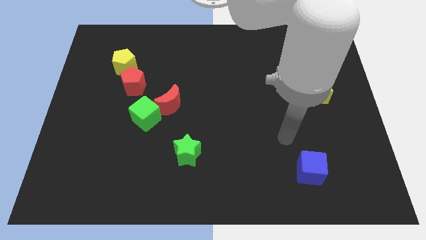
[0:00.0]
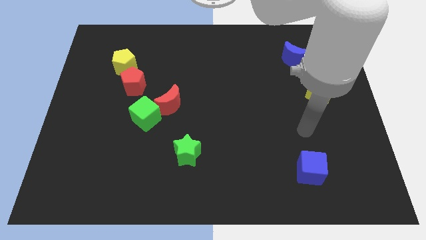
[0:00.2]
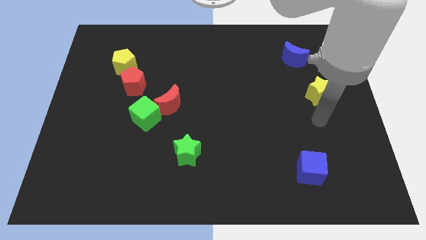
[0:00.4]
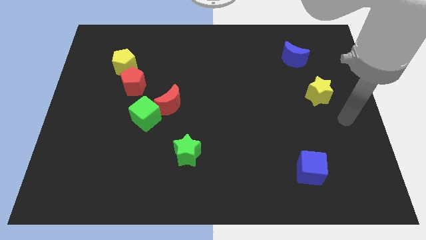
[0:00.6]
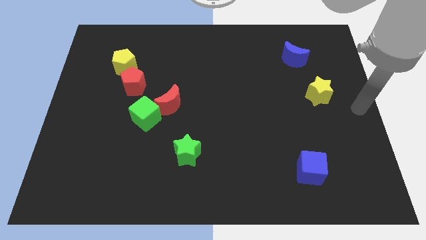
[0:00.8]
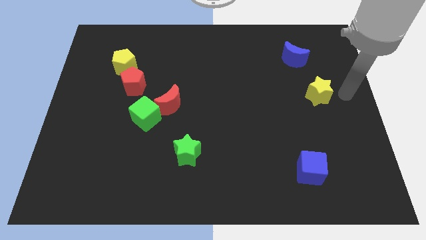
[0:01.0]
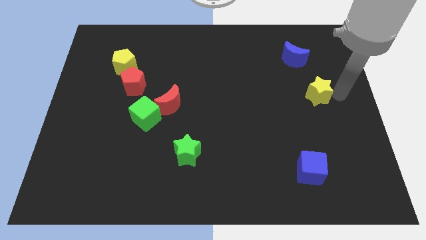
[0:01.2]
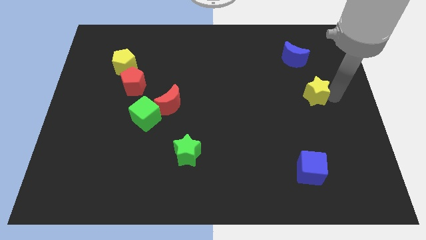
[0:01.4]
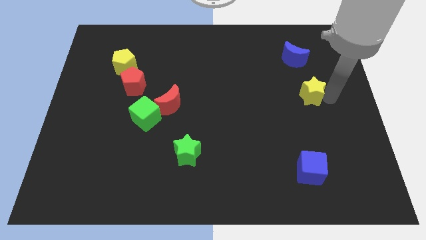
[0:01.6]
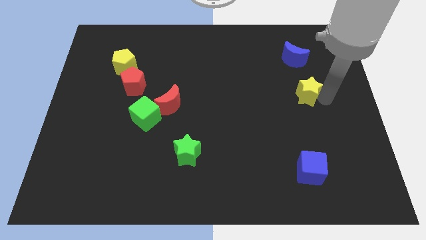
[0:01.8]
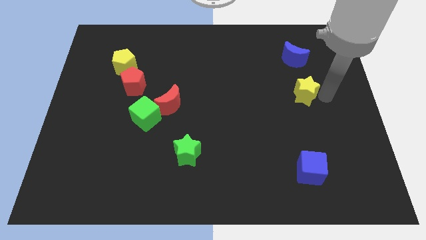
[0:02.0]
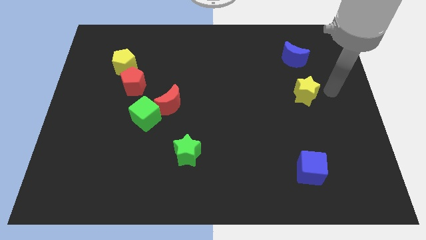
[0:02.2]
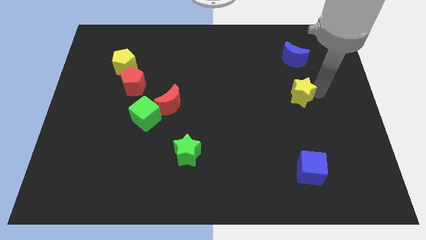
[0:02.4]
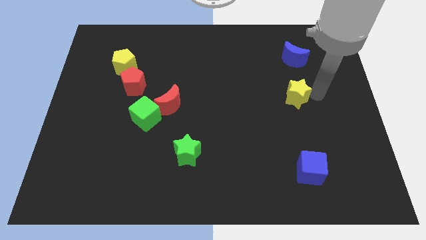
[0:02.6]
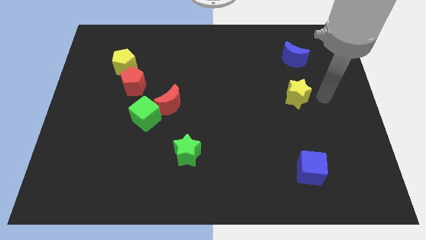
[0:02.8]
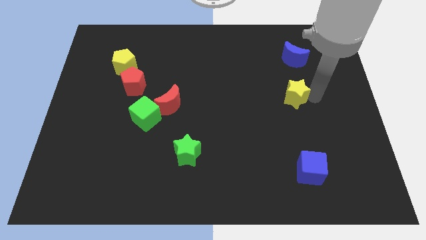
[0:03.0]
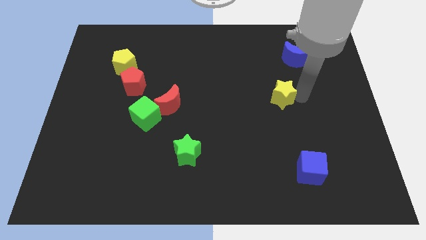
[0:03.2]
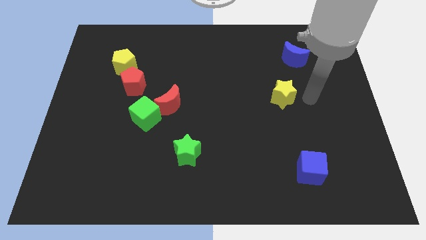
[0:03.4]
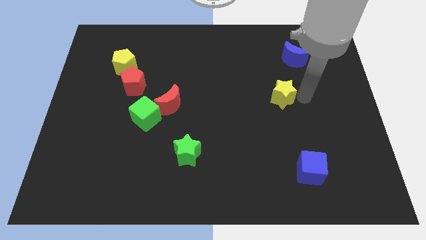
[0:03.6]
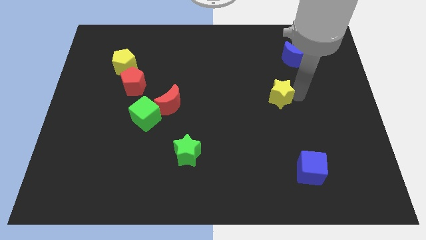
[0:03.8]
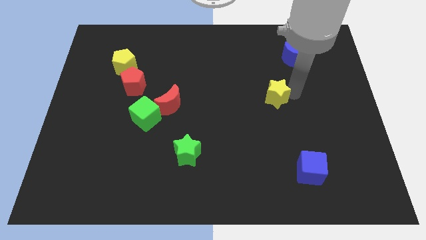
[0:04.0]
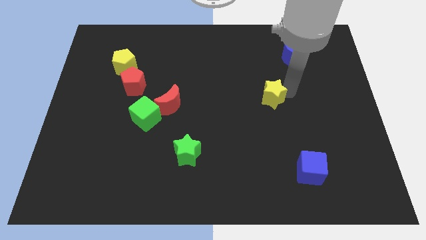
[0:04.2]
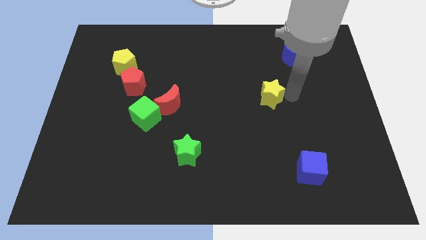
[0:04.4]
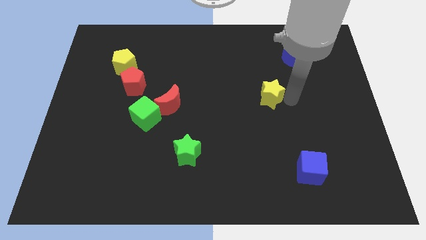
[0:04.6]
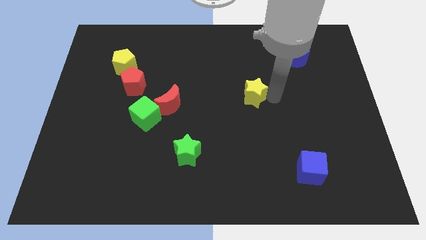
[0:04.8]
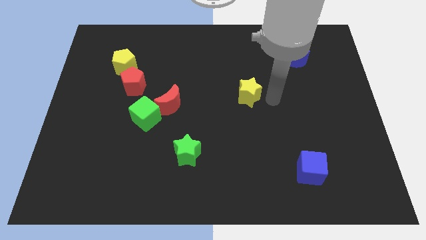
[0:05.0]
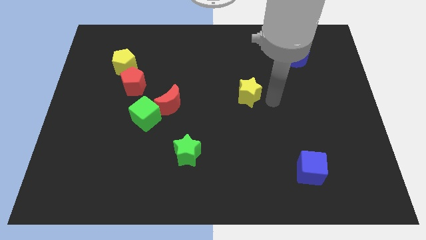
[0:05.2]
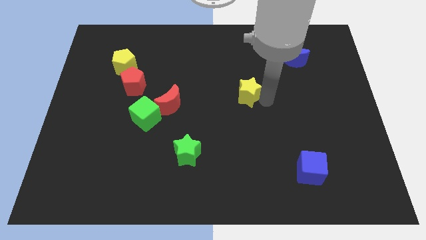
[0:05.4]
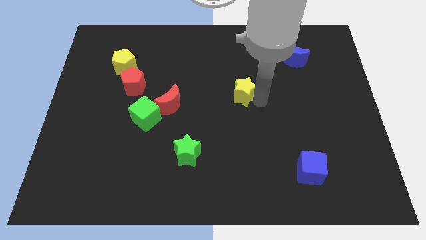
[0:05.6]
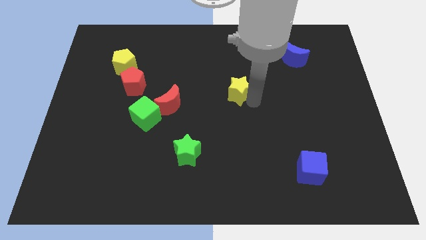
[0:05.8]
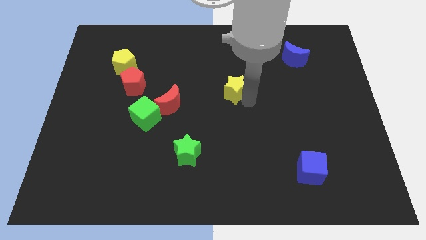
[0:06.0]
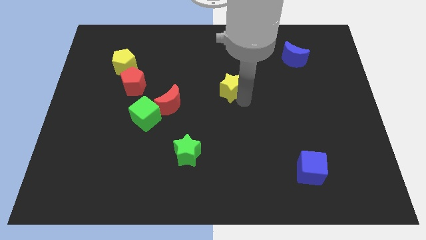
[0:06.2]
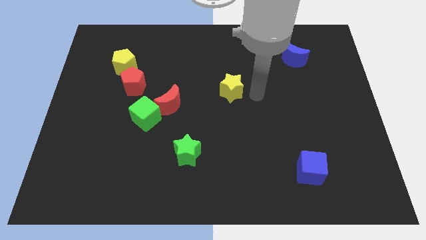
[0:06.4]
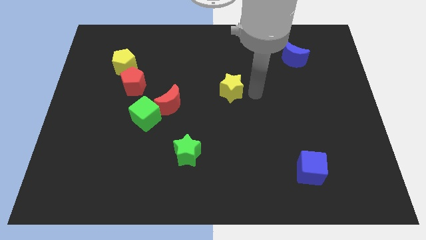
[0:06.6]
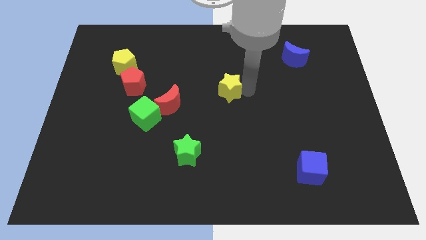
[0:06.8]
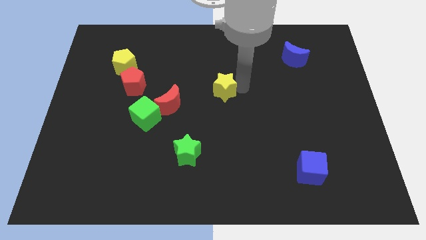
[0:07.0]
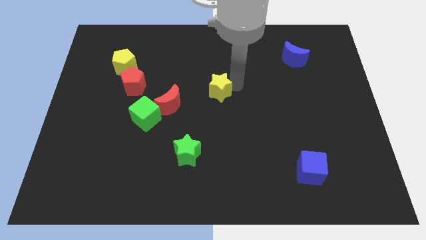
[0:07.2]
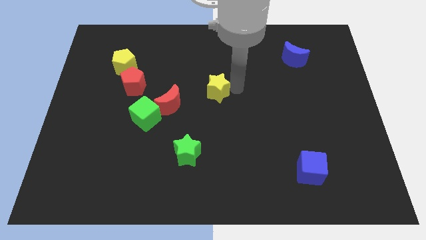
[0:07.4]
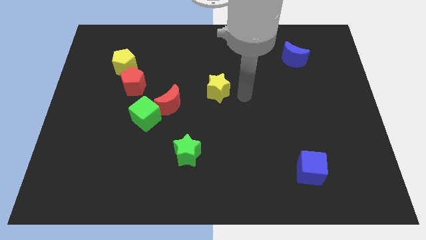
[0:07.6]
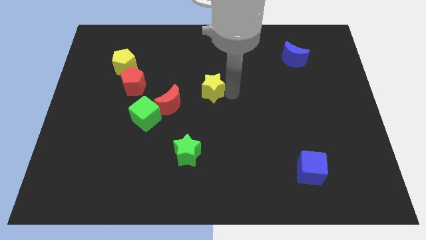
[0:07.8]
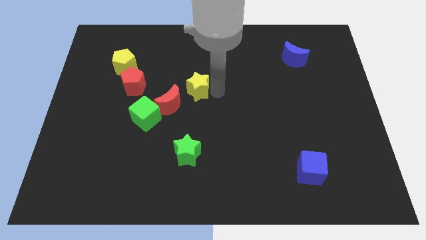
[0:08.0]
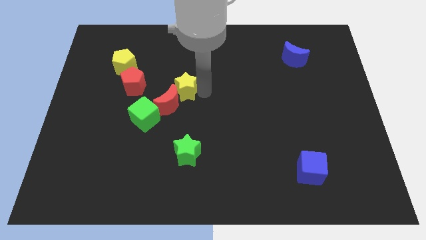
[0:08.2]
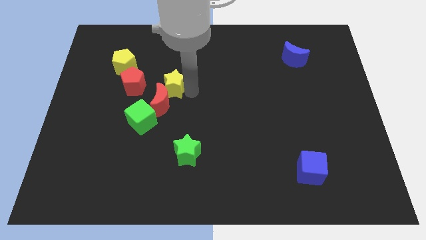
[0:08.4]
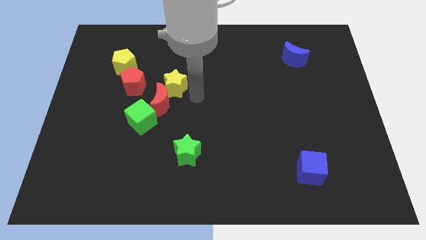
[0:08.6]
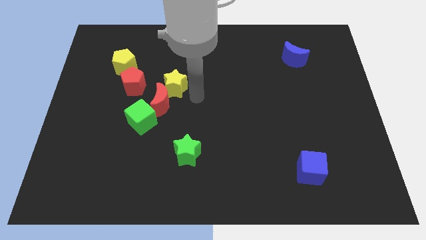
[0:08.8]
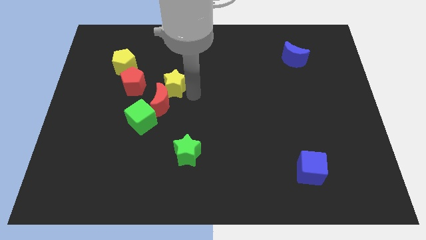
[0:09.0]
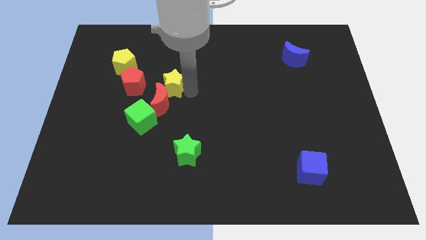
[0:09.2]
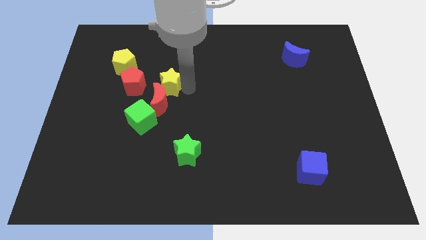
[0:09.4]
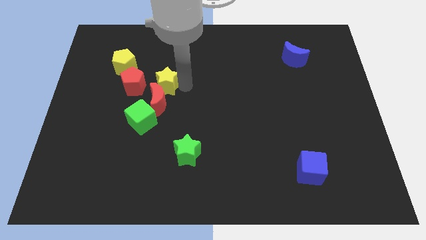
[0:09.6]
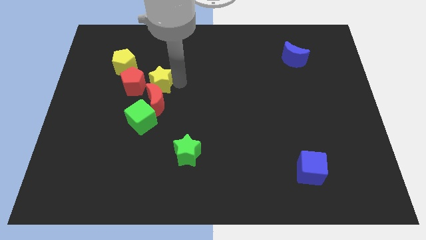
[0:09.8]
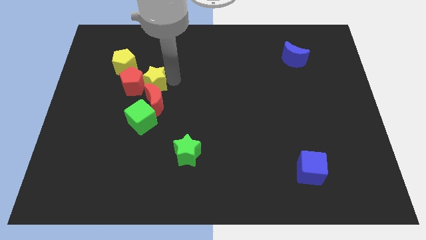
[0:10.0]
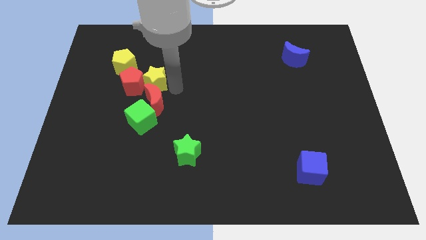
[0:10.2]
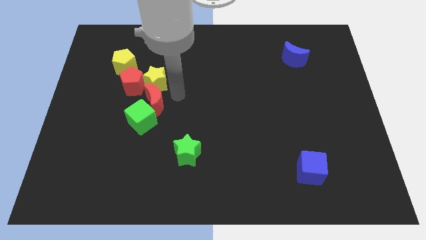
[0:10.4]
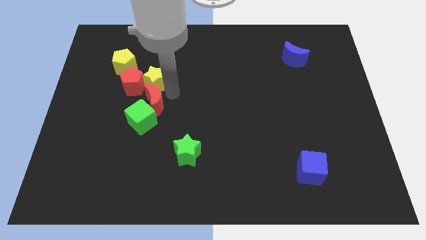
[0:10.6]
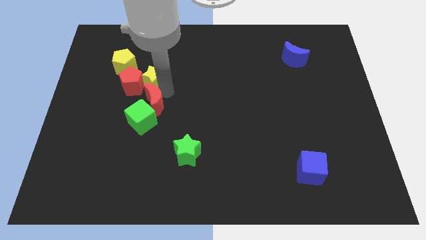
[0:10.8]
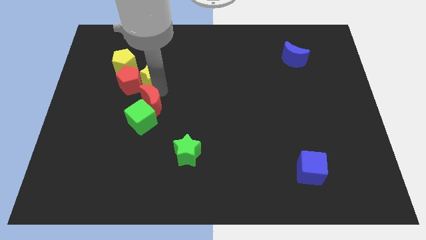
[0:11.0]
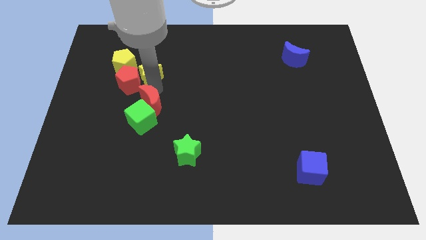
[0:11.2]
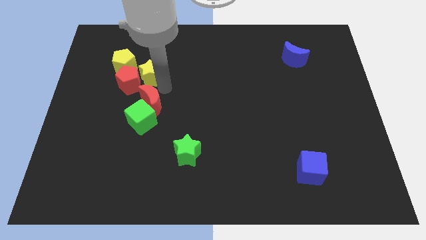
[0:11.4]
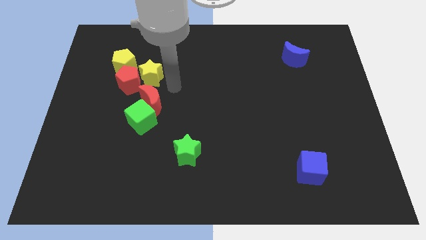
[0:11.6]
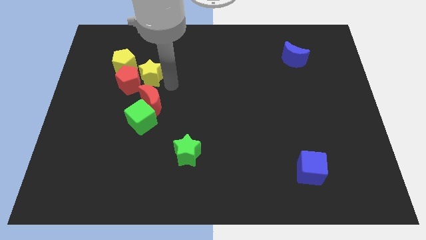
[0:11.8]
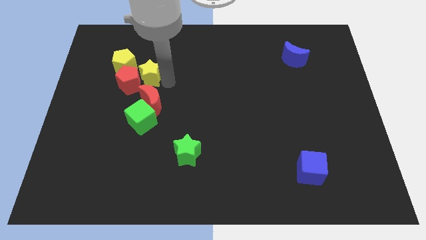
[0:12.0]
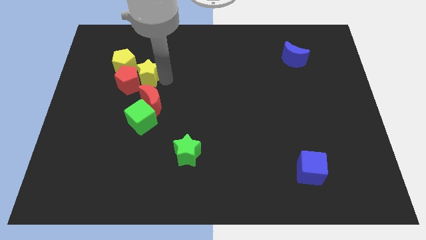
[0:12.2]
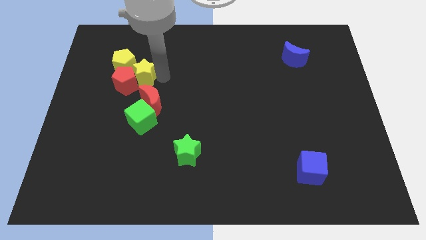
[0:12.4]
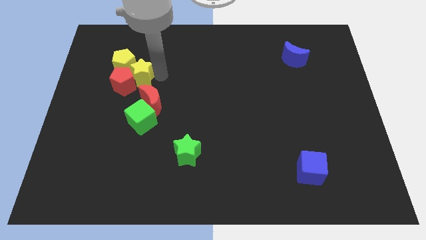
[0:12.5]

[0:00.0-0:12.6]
put the yellow star to the yellow pentagon

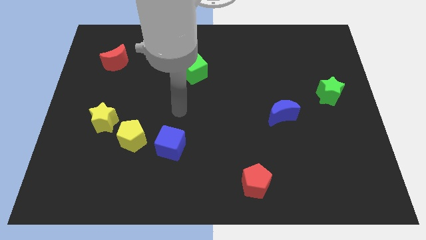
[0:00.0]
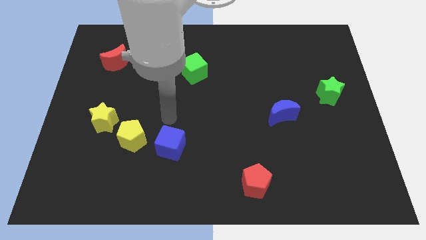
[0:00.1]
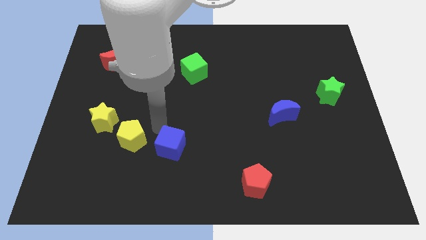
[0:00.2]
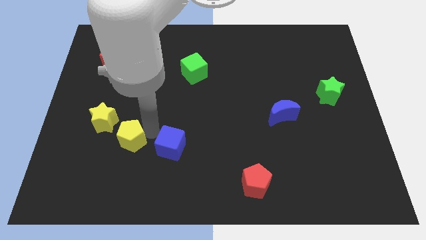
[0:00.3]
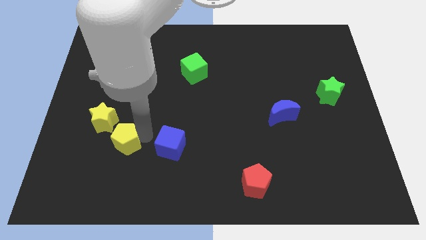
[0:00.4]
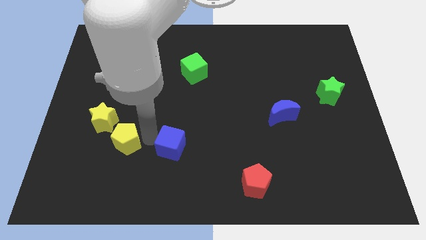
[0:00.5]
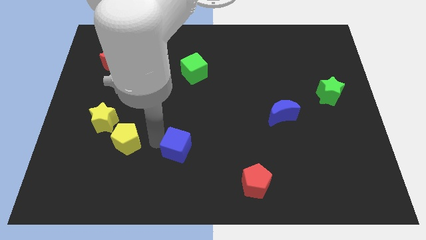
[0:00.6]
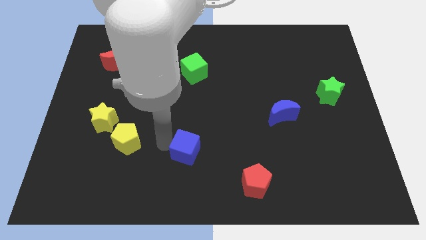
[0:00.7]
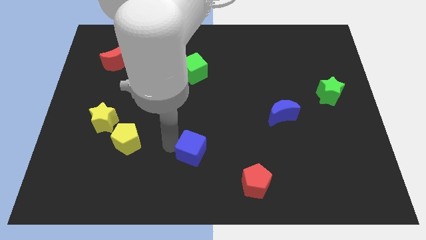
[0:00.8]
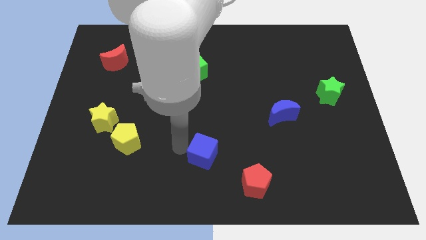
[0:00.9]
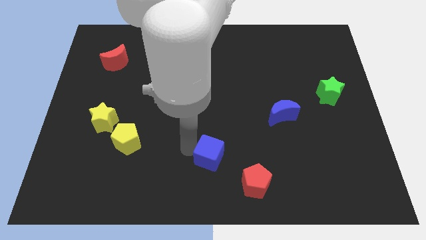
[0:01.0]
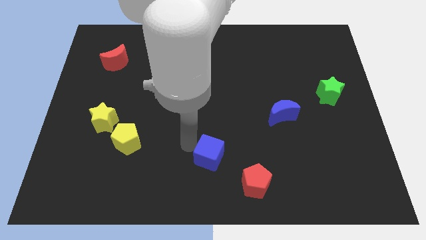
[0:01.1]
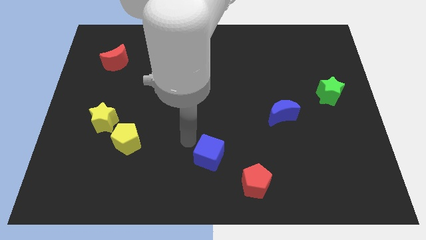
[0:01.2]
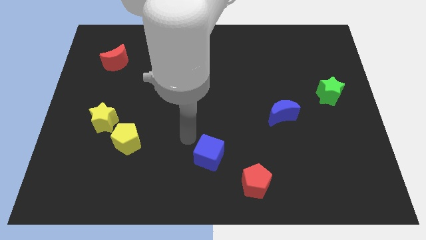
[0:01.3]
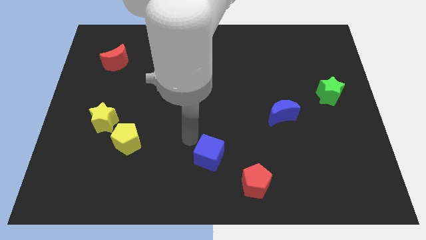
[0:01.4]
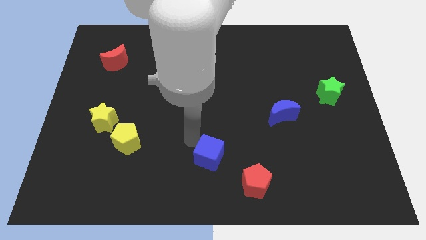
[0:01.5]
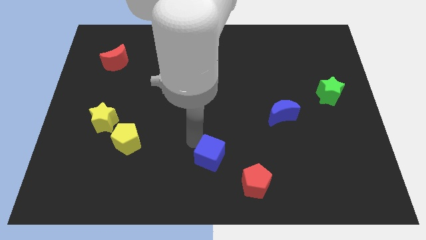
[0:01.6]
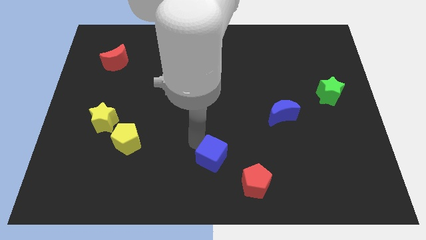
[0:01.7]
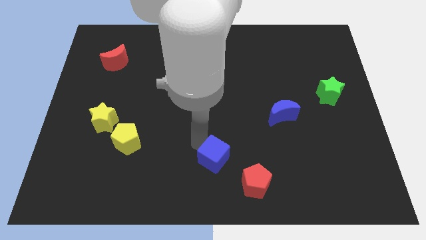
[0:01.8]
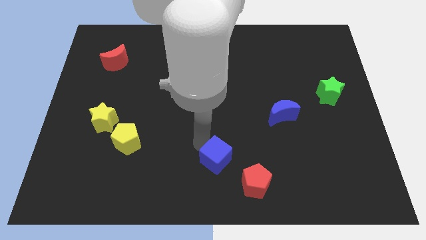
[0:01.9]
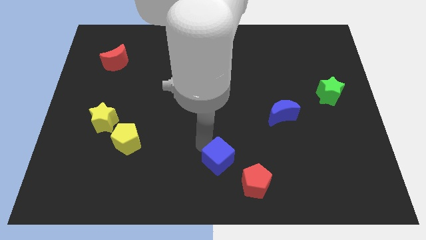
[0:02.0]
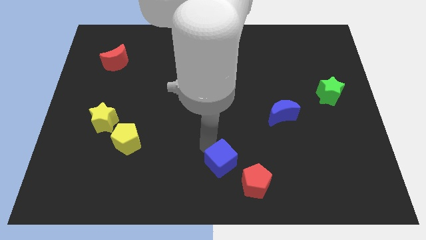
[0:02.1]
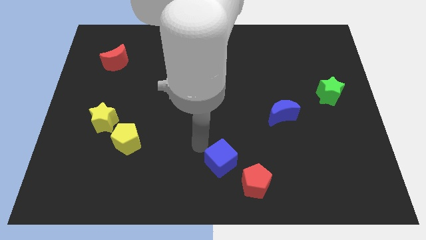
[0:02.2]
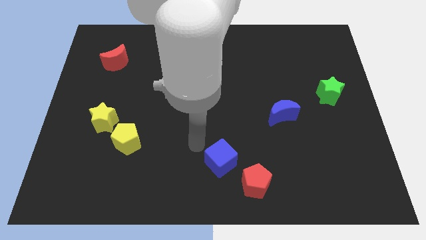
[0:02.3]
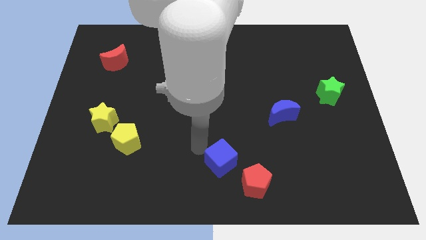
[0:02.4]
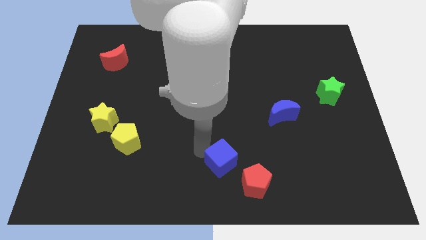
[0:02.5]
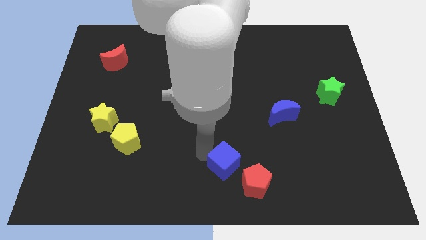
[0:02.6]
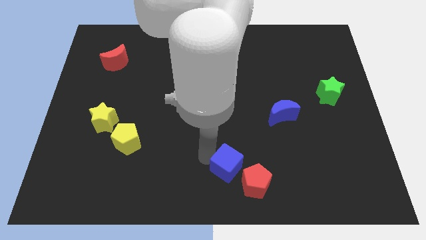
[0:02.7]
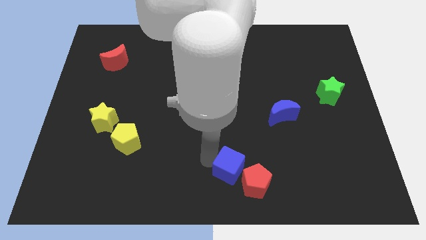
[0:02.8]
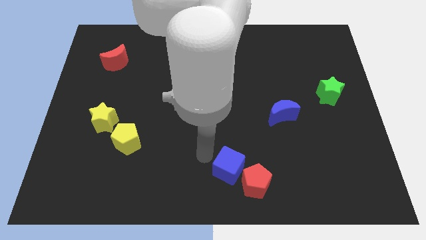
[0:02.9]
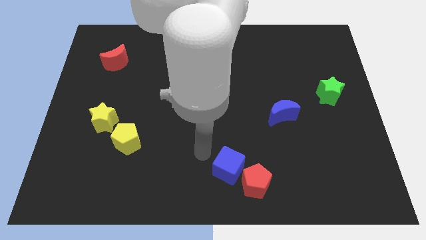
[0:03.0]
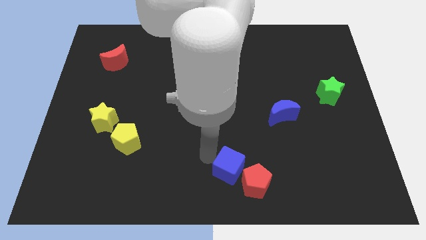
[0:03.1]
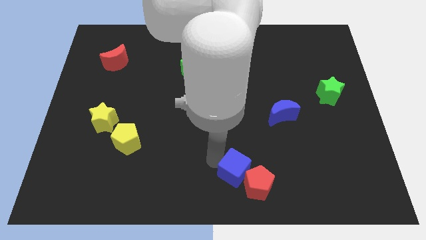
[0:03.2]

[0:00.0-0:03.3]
put the blue cube to the red pentagon
